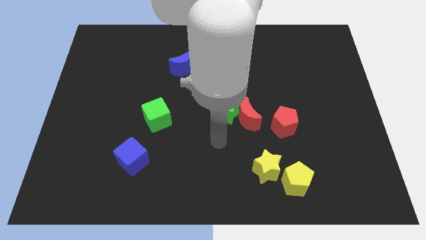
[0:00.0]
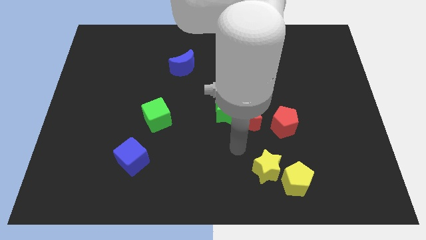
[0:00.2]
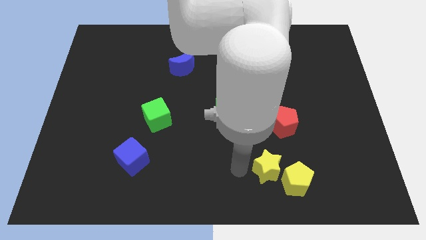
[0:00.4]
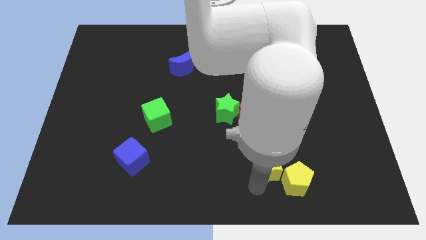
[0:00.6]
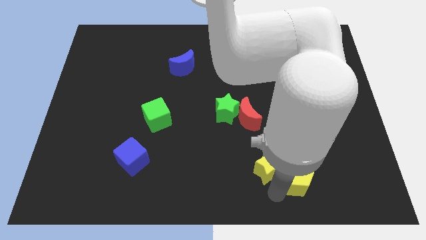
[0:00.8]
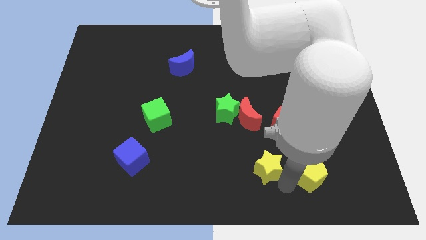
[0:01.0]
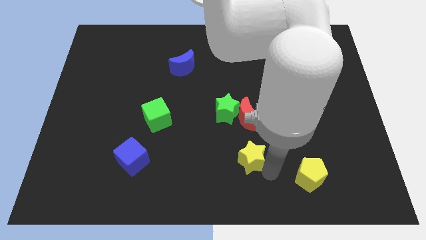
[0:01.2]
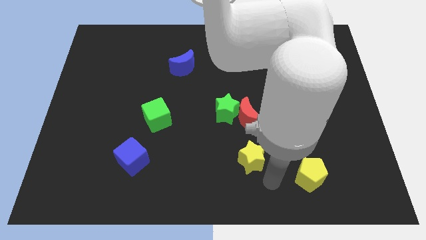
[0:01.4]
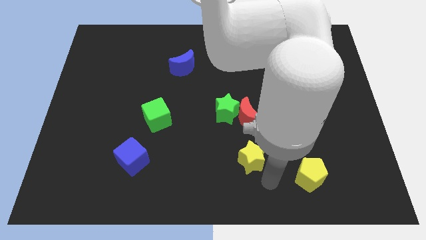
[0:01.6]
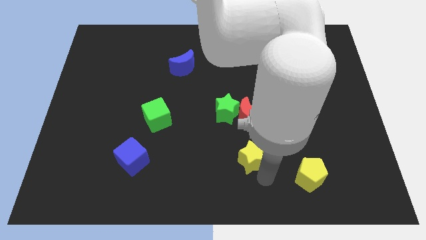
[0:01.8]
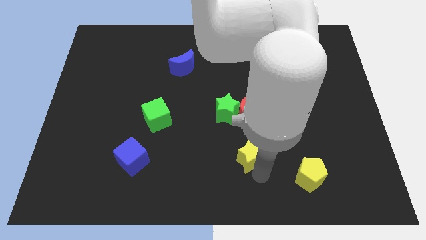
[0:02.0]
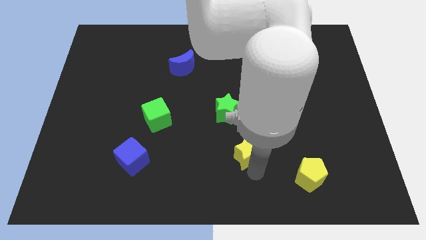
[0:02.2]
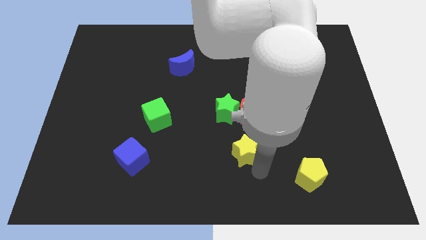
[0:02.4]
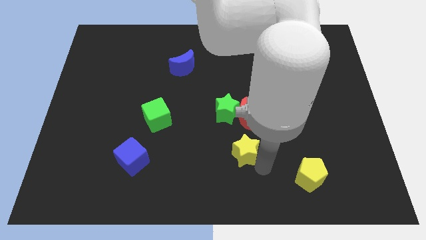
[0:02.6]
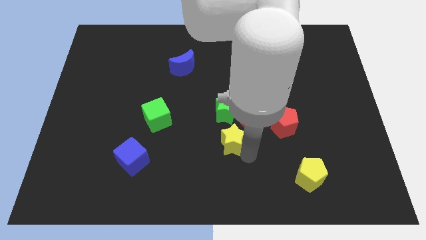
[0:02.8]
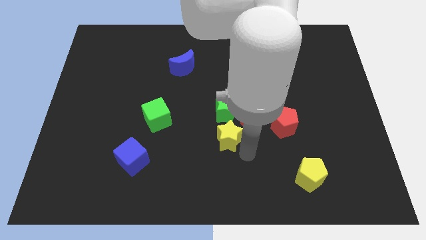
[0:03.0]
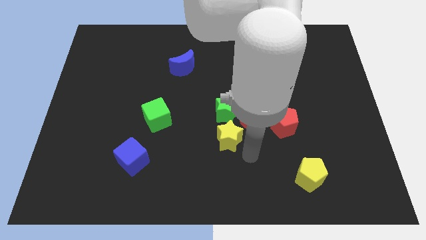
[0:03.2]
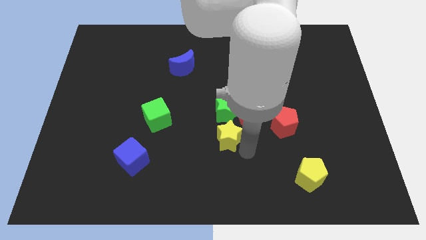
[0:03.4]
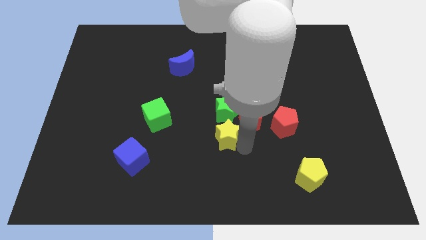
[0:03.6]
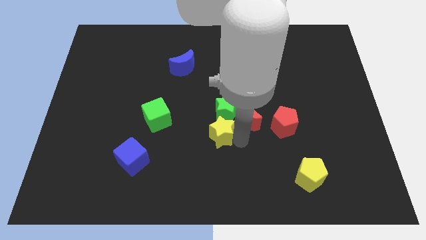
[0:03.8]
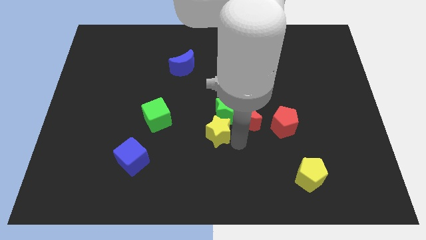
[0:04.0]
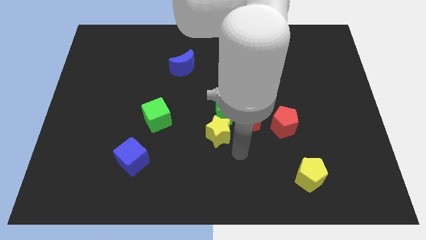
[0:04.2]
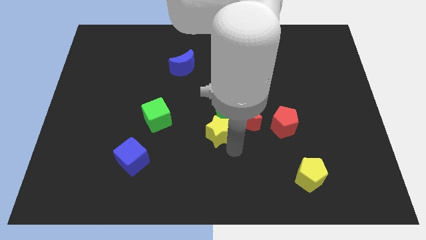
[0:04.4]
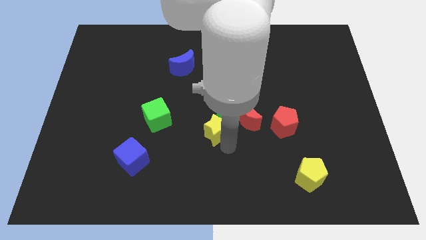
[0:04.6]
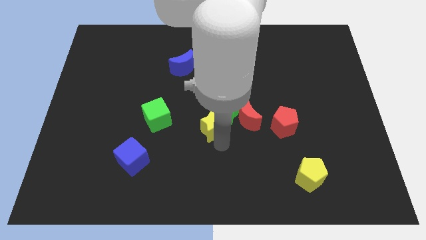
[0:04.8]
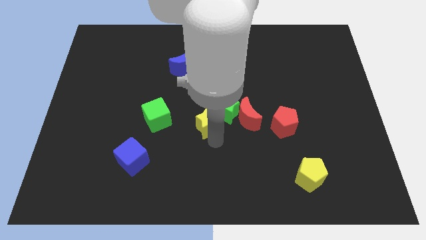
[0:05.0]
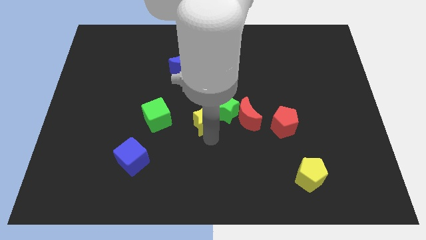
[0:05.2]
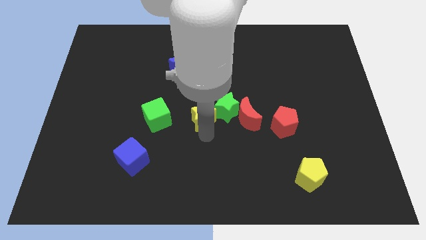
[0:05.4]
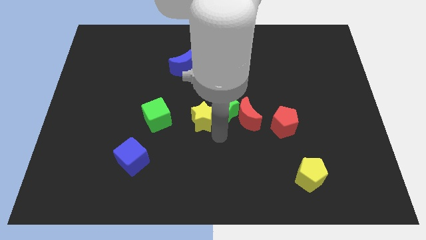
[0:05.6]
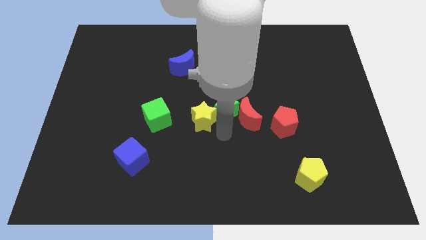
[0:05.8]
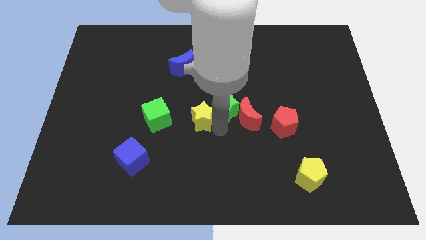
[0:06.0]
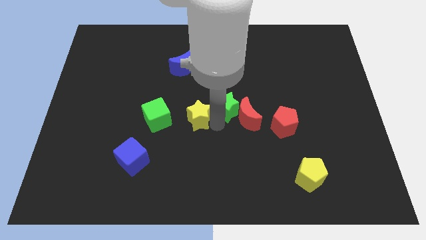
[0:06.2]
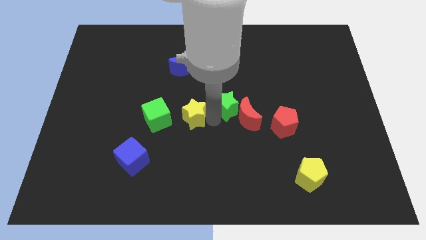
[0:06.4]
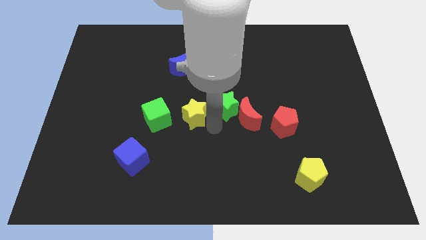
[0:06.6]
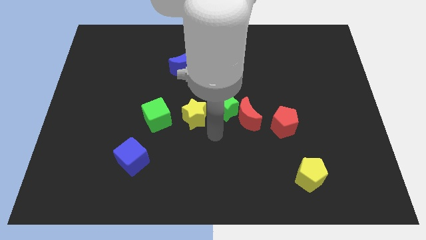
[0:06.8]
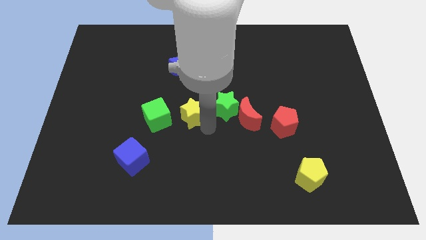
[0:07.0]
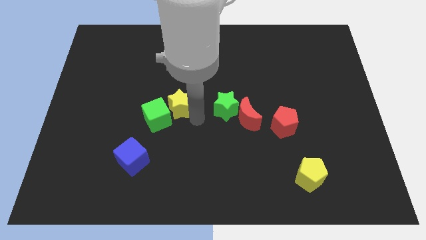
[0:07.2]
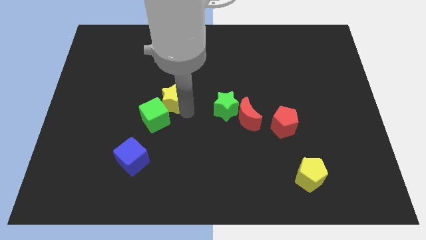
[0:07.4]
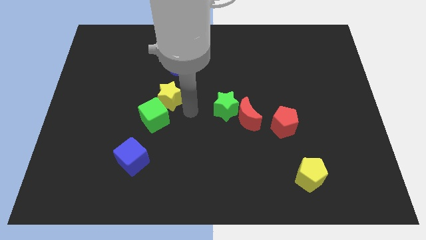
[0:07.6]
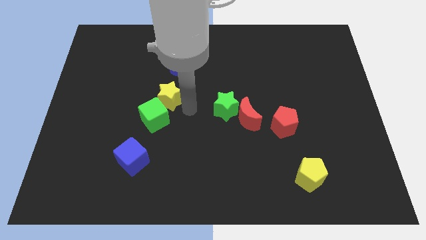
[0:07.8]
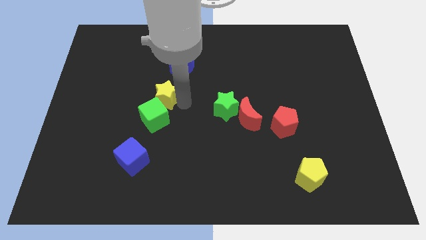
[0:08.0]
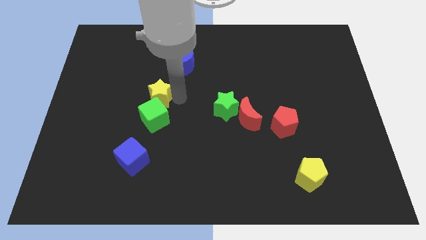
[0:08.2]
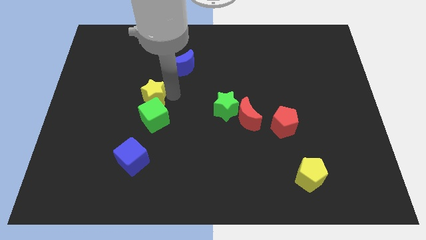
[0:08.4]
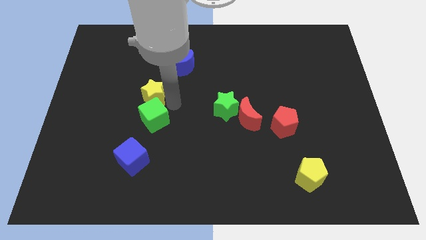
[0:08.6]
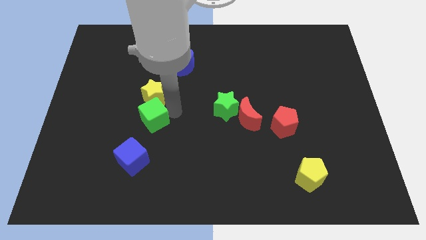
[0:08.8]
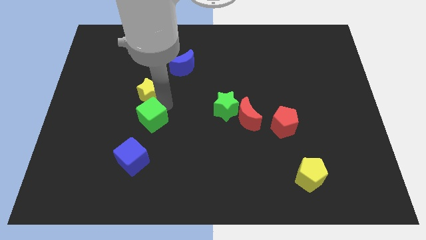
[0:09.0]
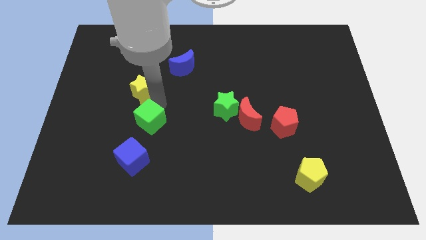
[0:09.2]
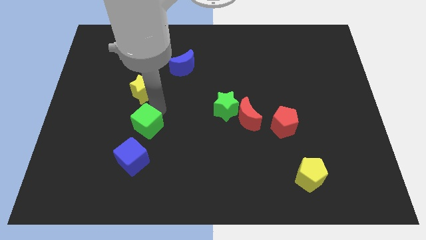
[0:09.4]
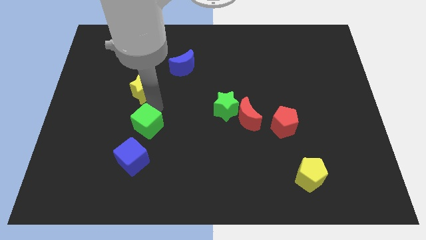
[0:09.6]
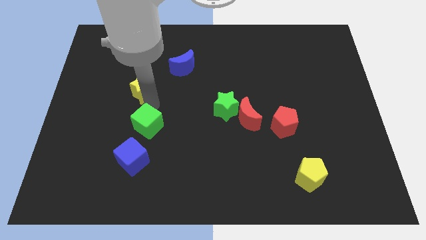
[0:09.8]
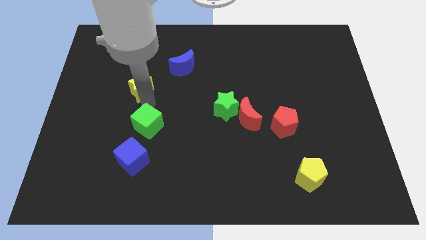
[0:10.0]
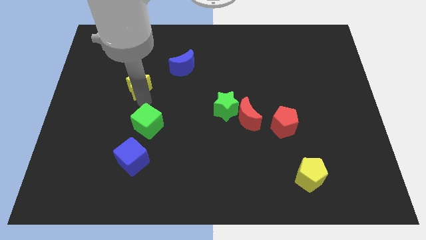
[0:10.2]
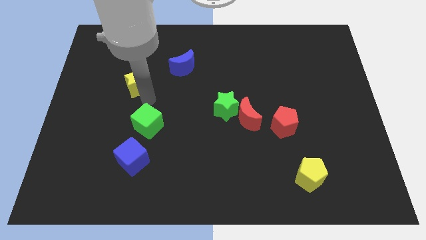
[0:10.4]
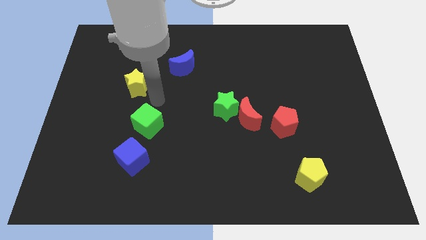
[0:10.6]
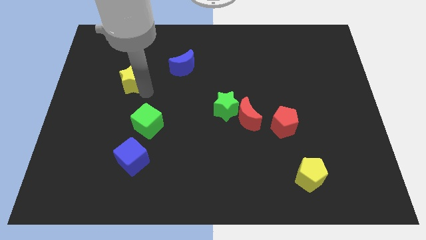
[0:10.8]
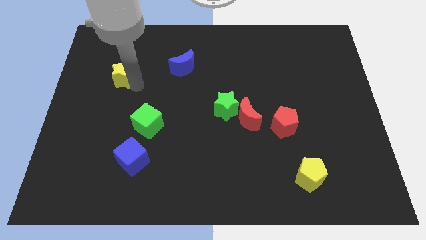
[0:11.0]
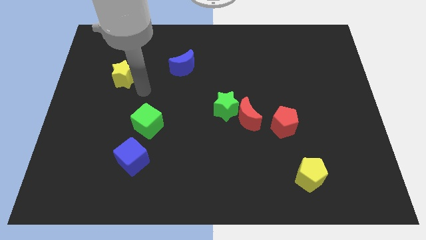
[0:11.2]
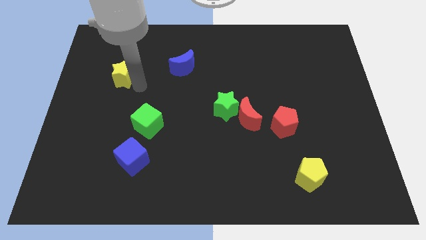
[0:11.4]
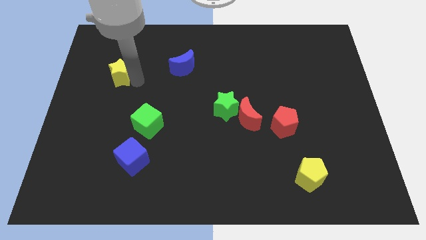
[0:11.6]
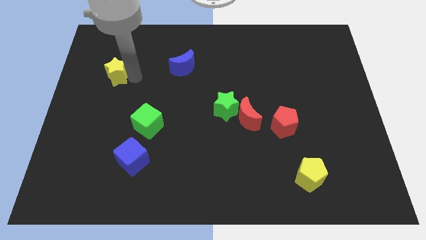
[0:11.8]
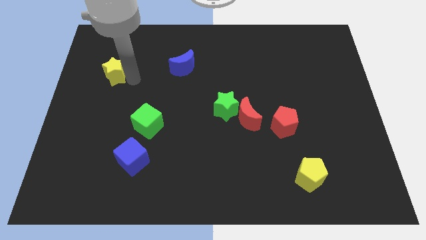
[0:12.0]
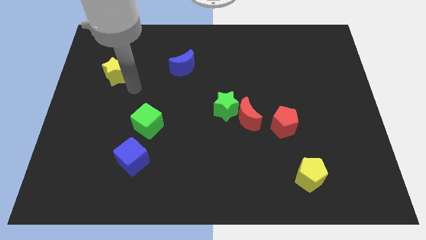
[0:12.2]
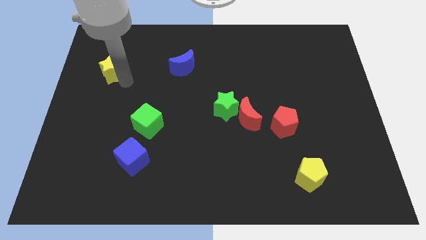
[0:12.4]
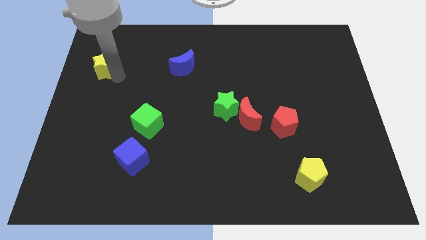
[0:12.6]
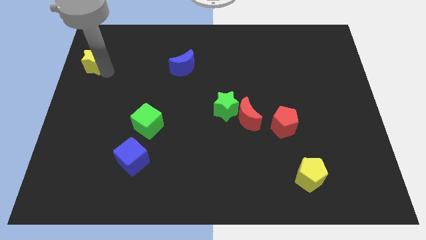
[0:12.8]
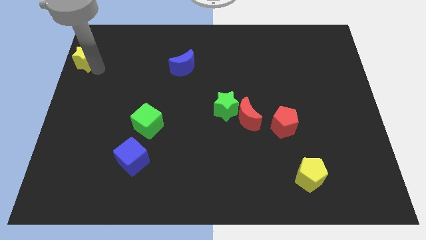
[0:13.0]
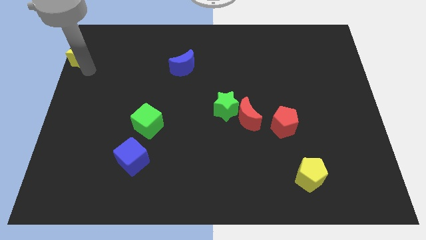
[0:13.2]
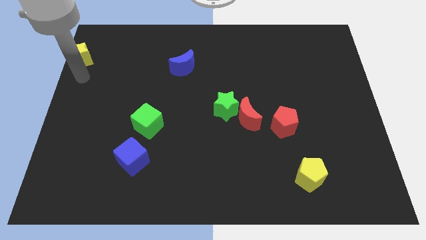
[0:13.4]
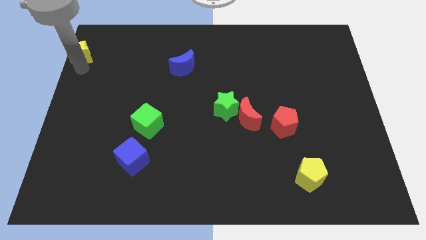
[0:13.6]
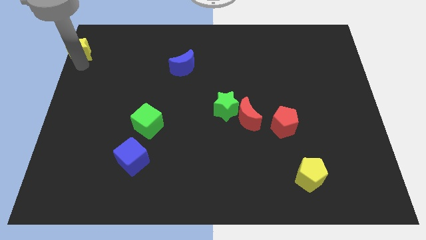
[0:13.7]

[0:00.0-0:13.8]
slide the yellow star to the top left
